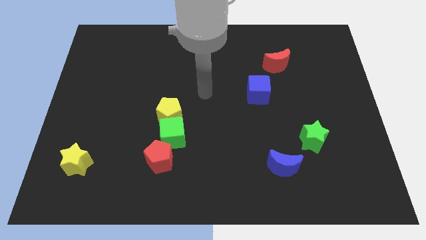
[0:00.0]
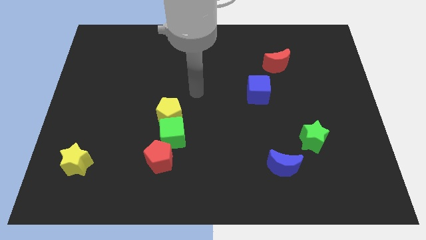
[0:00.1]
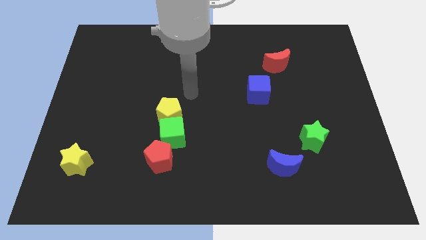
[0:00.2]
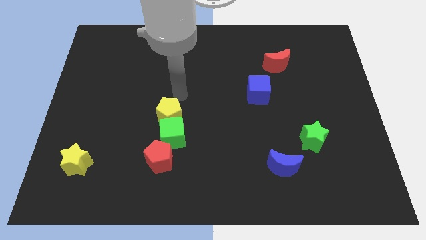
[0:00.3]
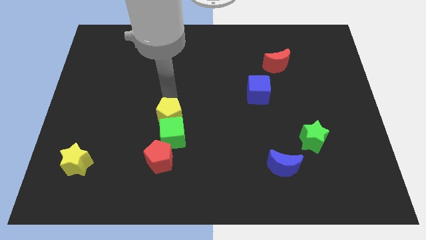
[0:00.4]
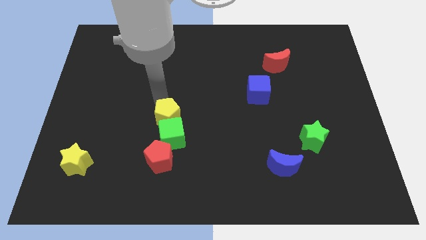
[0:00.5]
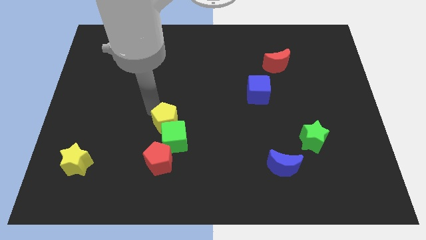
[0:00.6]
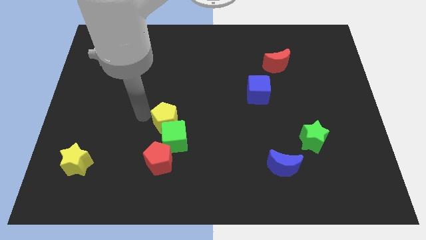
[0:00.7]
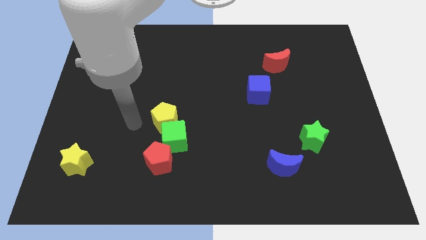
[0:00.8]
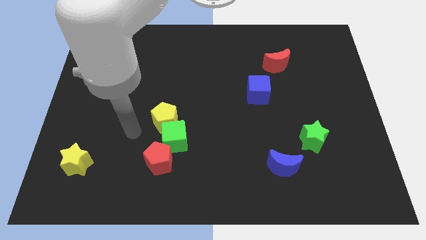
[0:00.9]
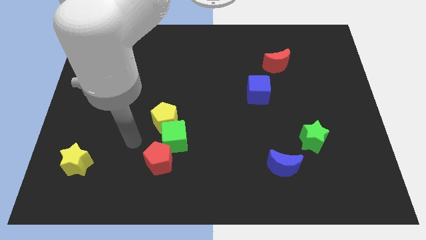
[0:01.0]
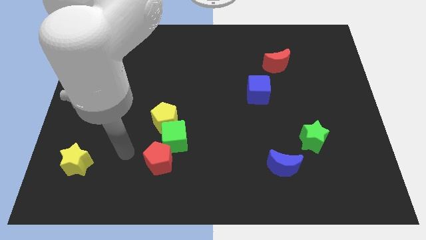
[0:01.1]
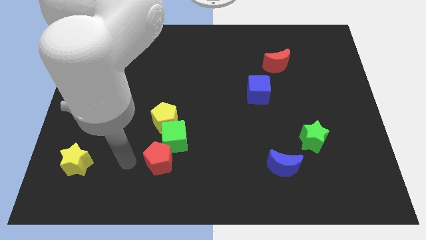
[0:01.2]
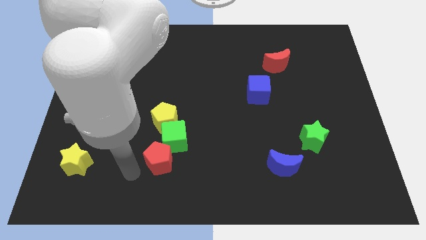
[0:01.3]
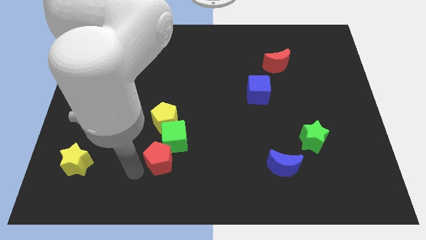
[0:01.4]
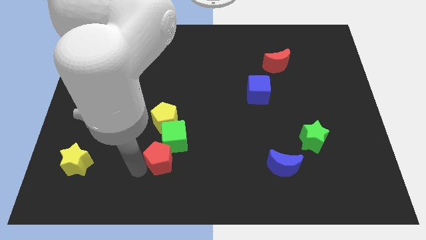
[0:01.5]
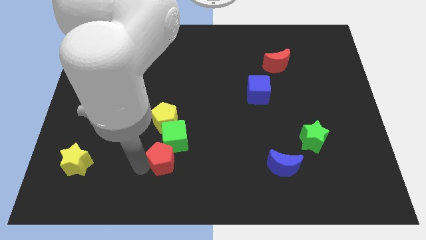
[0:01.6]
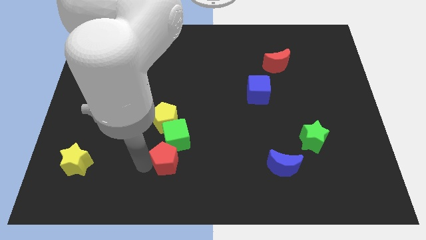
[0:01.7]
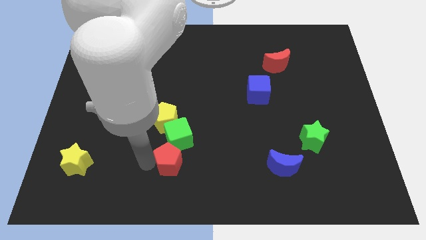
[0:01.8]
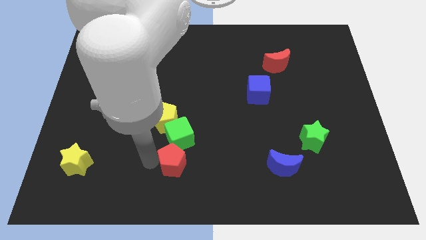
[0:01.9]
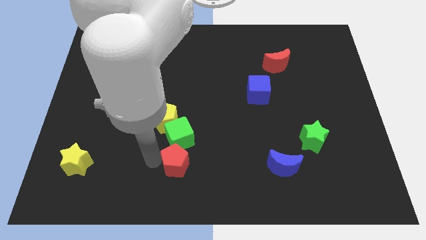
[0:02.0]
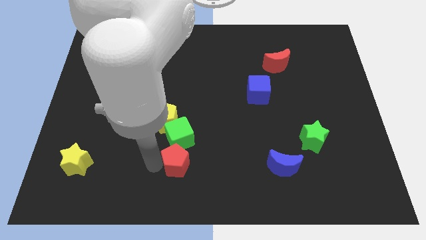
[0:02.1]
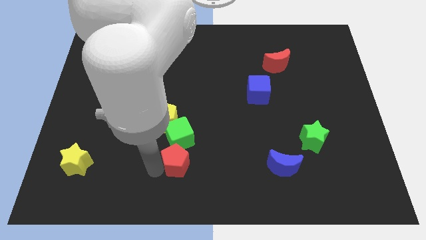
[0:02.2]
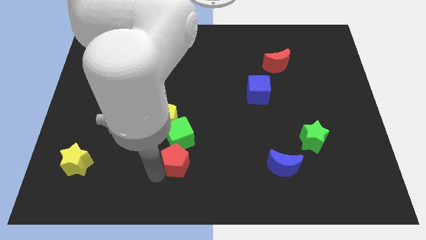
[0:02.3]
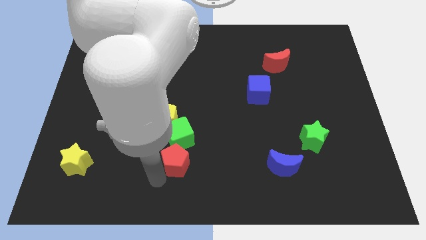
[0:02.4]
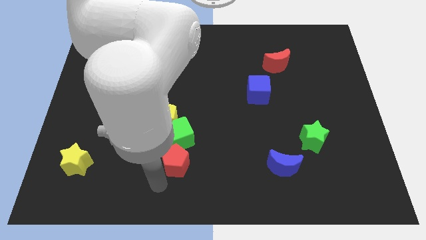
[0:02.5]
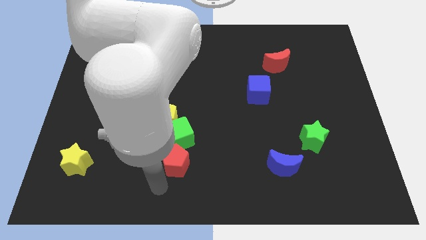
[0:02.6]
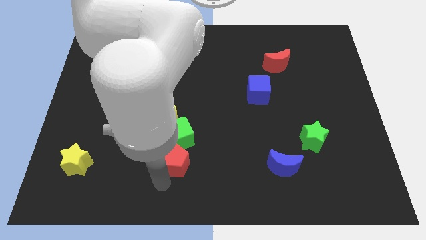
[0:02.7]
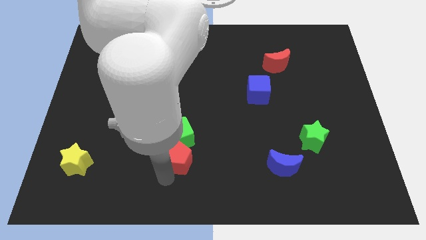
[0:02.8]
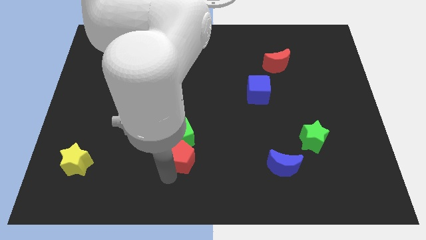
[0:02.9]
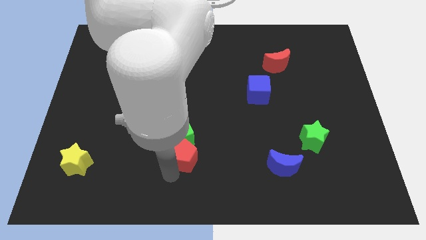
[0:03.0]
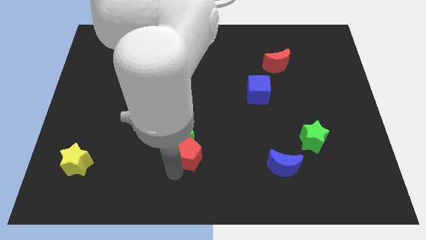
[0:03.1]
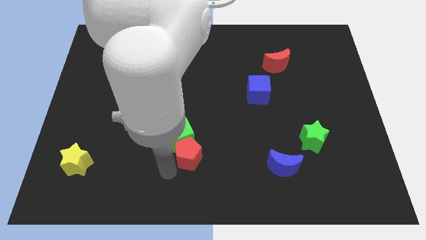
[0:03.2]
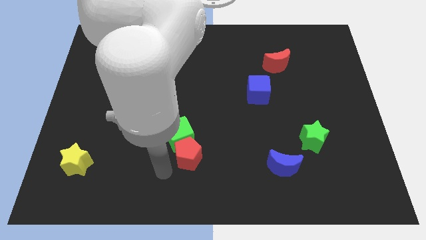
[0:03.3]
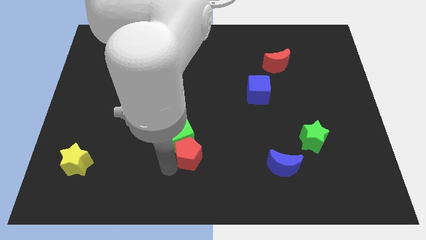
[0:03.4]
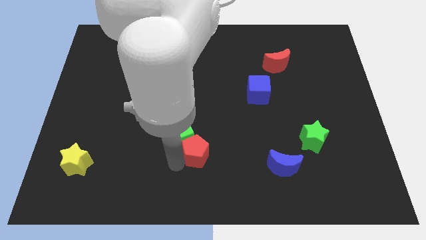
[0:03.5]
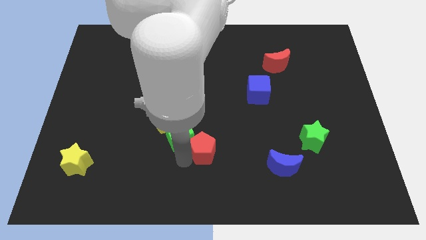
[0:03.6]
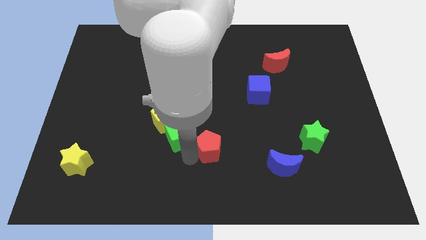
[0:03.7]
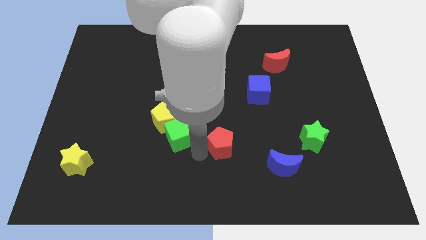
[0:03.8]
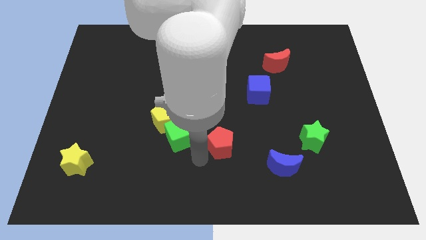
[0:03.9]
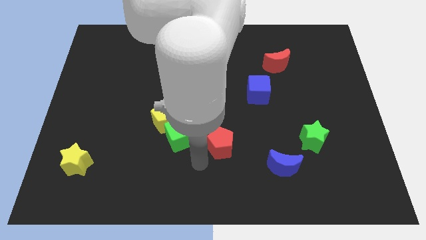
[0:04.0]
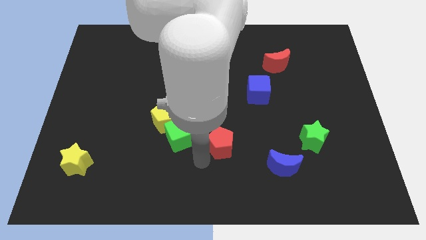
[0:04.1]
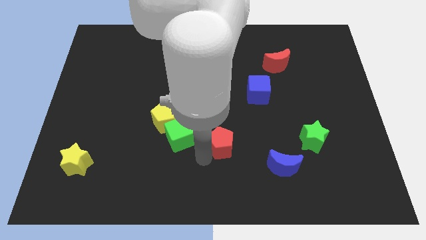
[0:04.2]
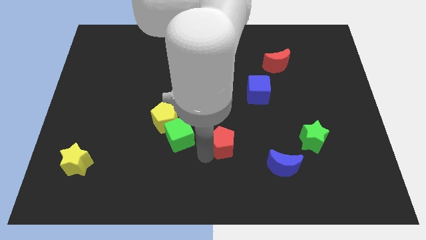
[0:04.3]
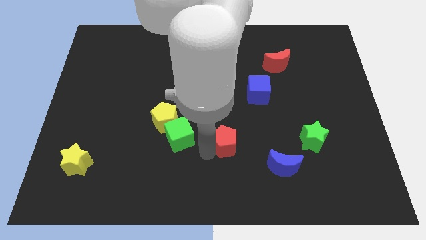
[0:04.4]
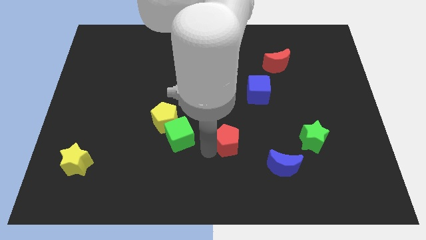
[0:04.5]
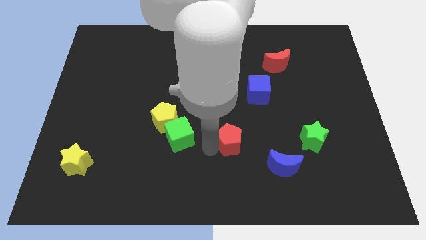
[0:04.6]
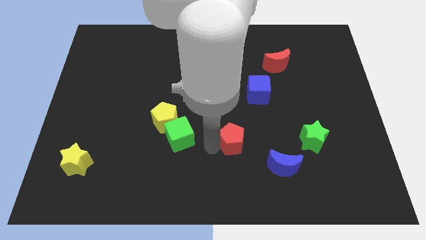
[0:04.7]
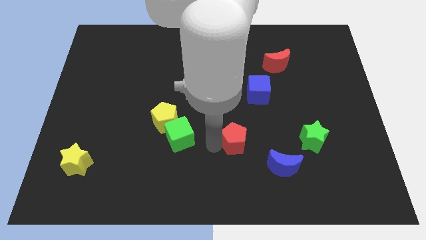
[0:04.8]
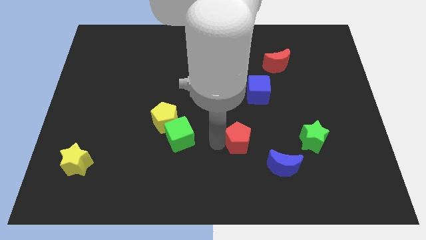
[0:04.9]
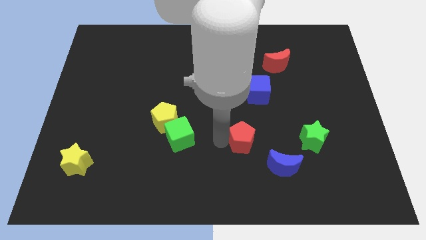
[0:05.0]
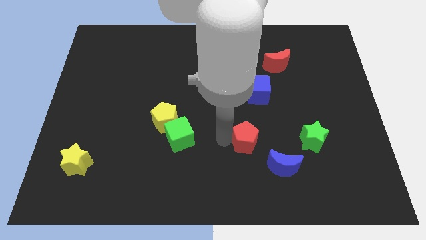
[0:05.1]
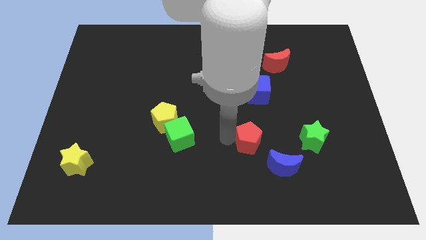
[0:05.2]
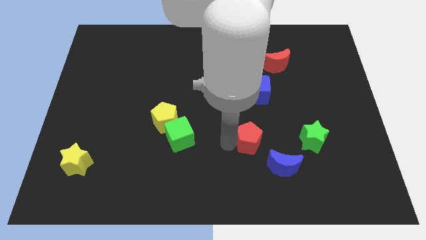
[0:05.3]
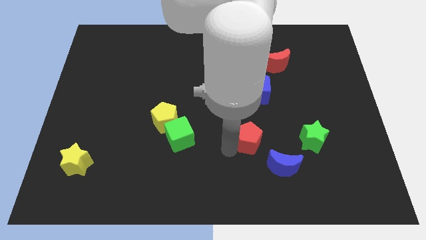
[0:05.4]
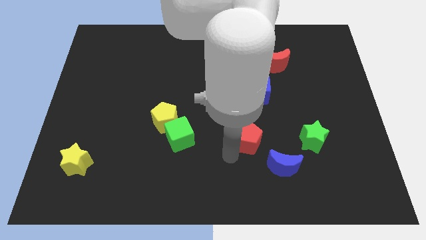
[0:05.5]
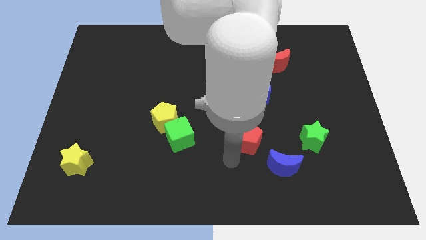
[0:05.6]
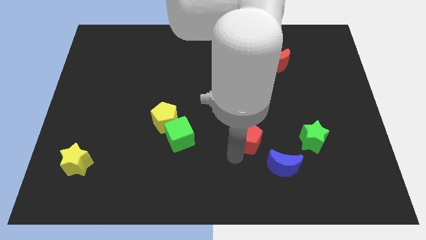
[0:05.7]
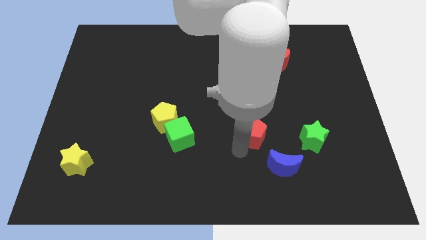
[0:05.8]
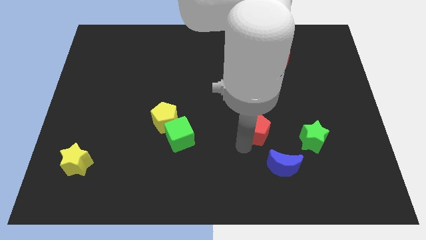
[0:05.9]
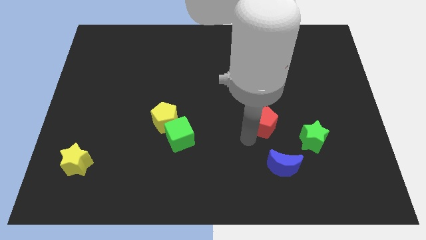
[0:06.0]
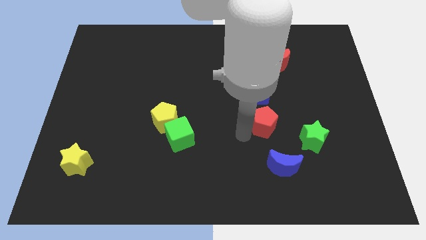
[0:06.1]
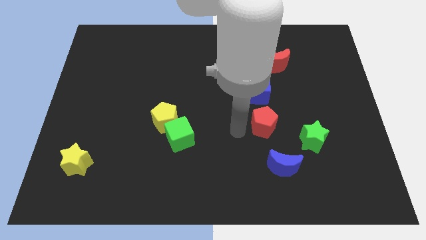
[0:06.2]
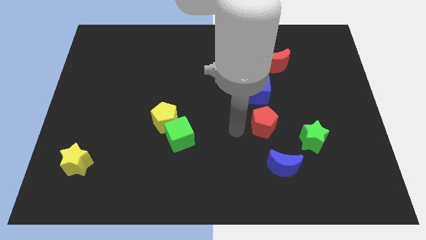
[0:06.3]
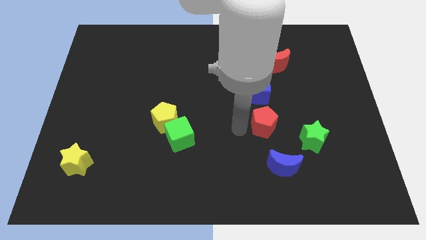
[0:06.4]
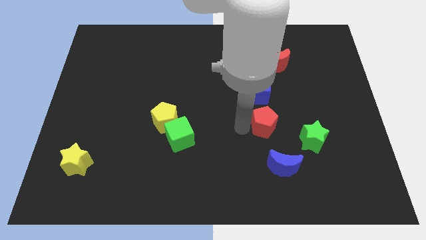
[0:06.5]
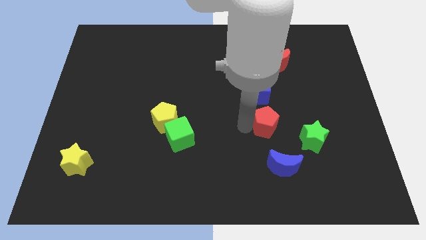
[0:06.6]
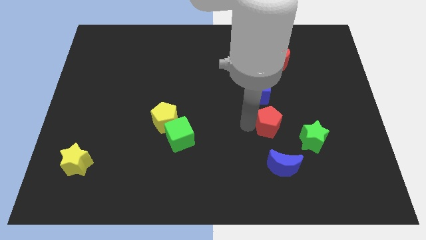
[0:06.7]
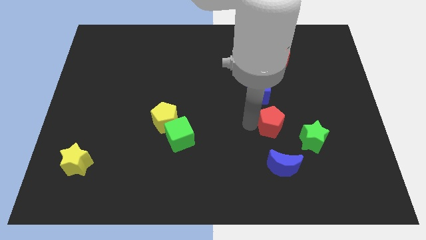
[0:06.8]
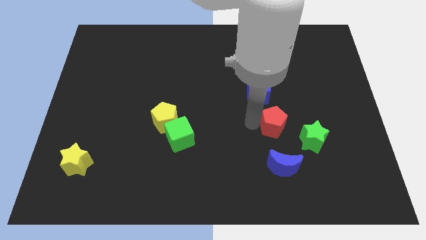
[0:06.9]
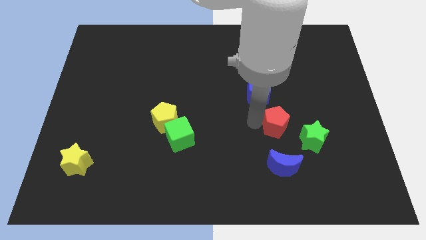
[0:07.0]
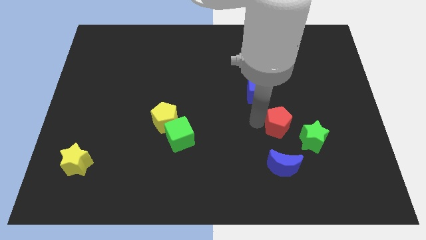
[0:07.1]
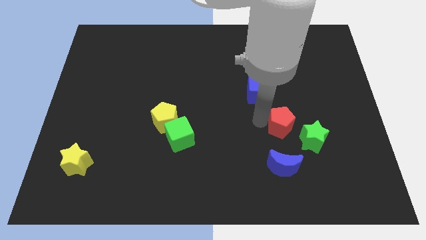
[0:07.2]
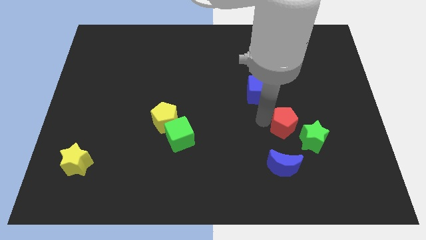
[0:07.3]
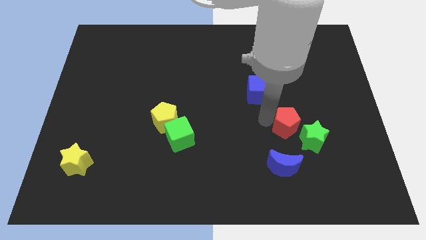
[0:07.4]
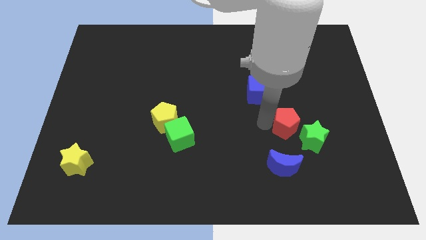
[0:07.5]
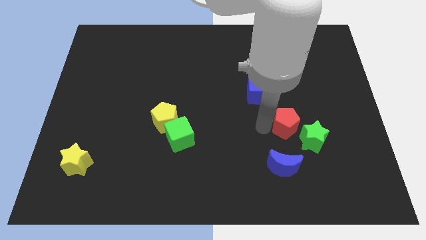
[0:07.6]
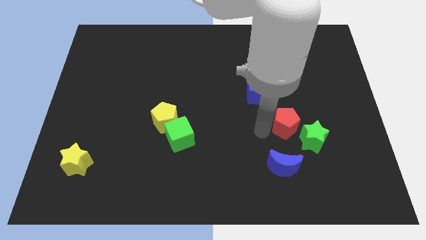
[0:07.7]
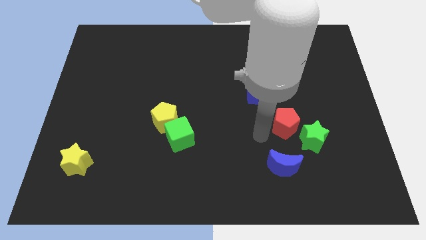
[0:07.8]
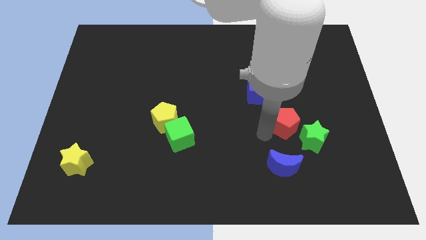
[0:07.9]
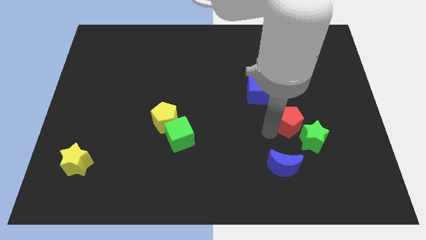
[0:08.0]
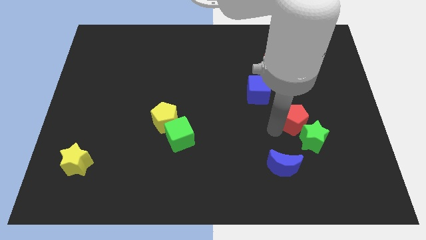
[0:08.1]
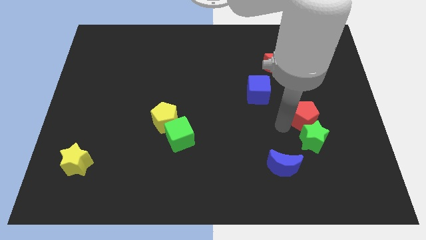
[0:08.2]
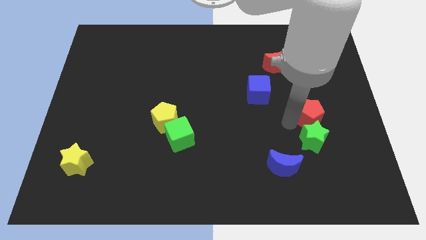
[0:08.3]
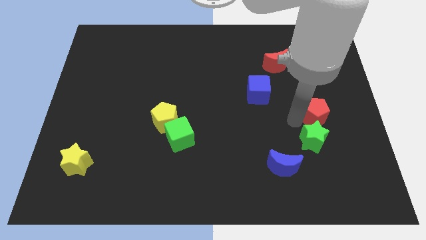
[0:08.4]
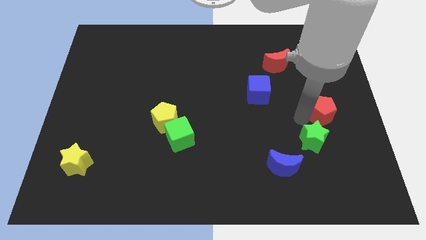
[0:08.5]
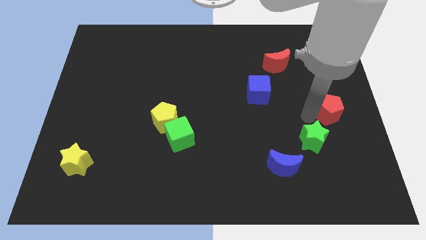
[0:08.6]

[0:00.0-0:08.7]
push the red pentagon to the right side
